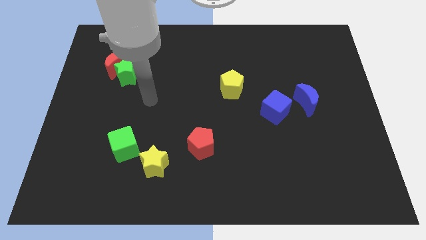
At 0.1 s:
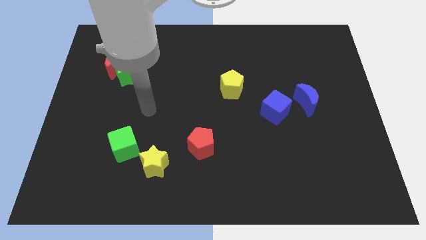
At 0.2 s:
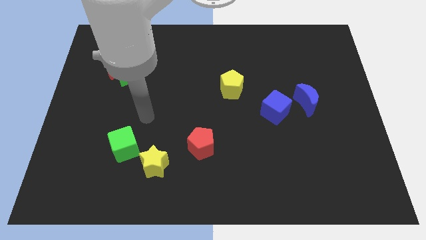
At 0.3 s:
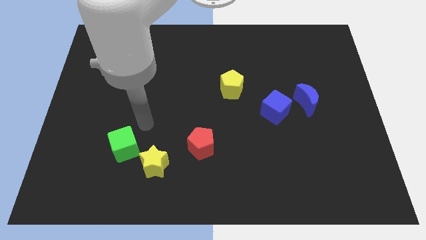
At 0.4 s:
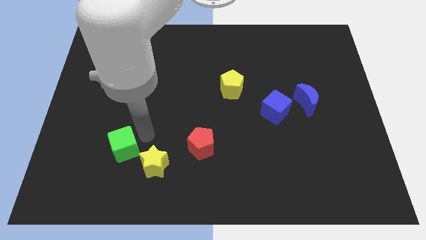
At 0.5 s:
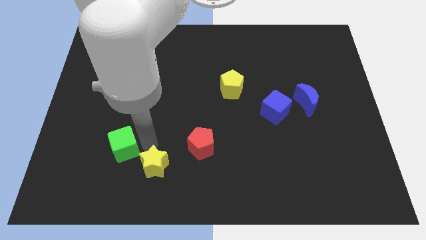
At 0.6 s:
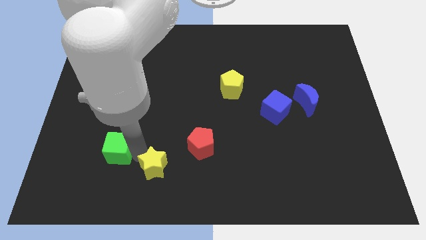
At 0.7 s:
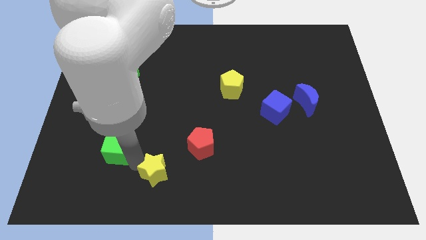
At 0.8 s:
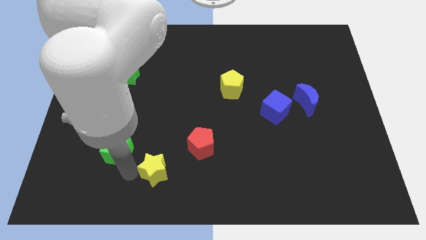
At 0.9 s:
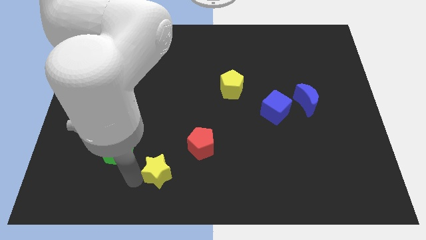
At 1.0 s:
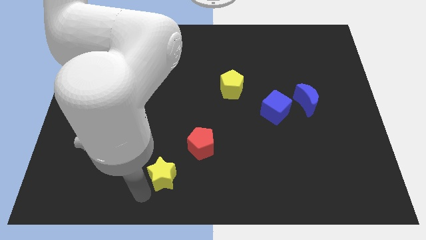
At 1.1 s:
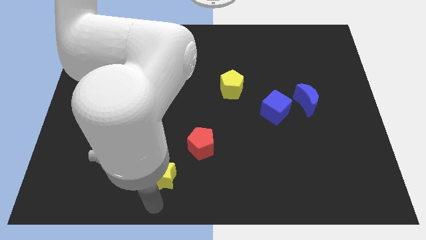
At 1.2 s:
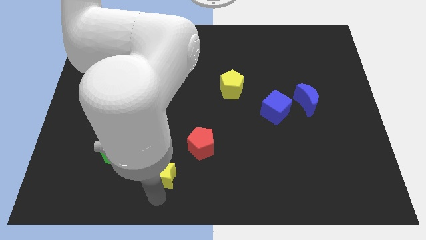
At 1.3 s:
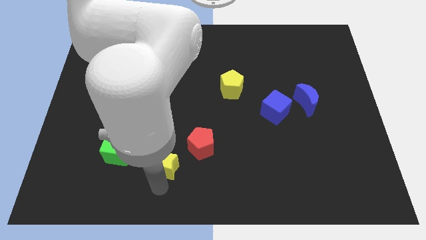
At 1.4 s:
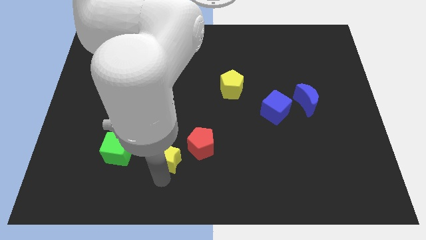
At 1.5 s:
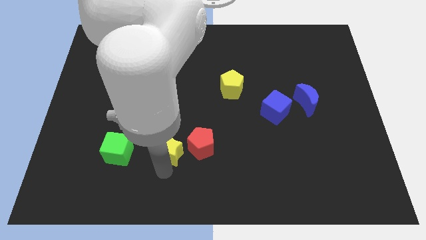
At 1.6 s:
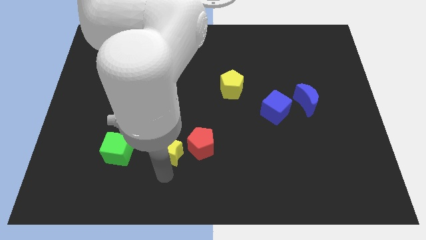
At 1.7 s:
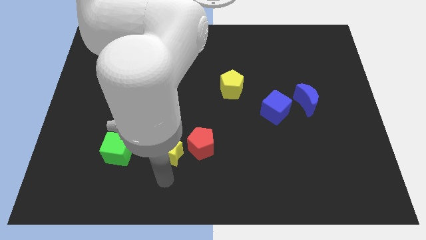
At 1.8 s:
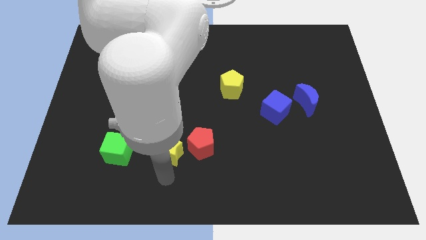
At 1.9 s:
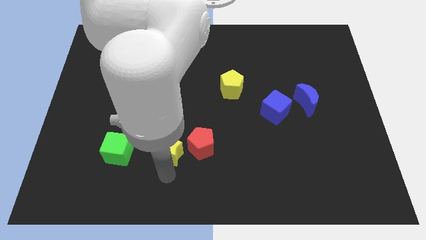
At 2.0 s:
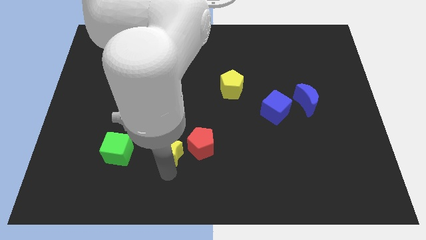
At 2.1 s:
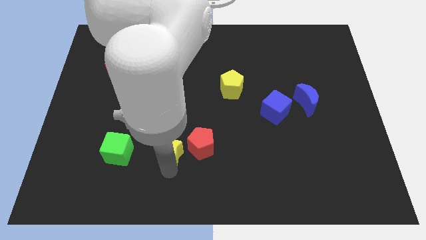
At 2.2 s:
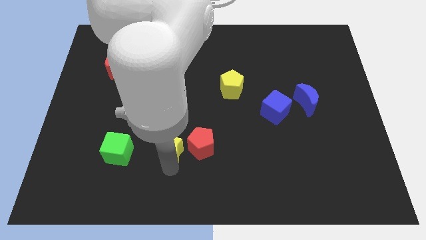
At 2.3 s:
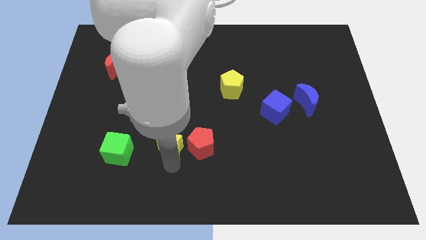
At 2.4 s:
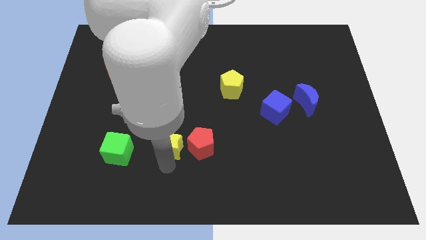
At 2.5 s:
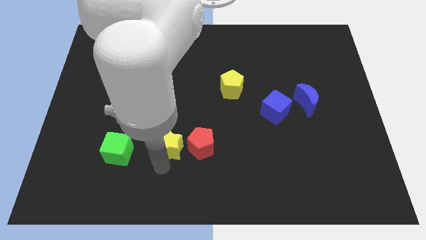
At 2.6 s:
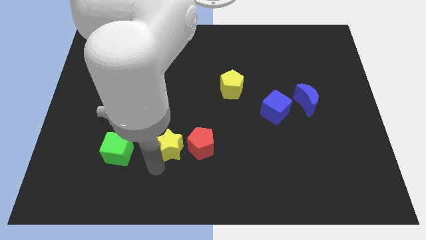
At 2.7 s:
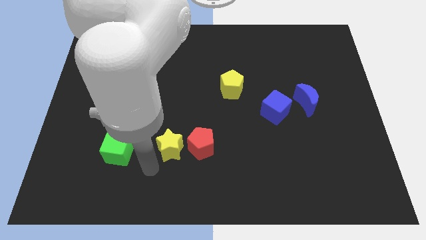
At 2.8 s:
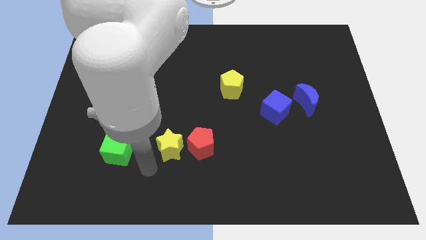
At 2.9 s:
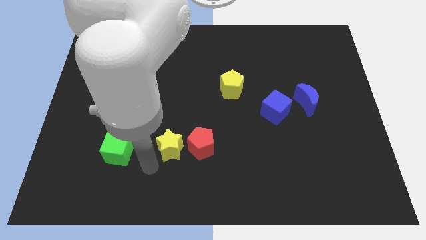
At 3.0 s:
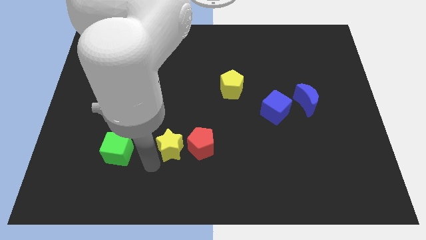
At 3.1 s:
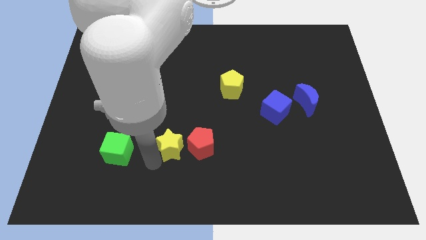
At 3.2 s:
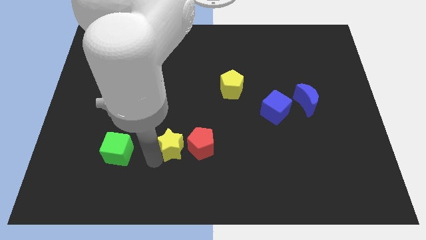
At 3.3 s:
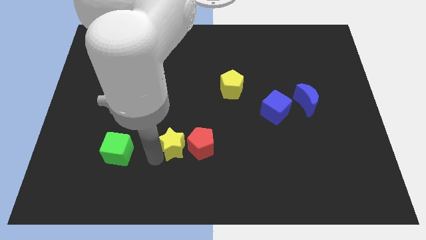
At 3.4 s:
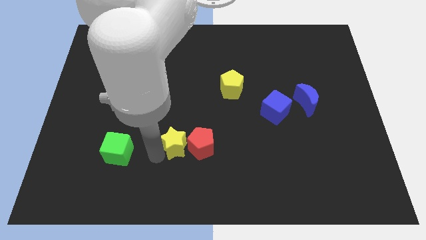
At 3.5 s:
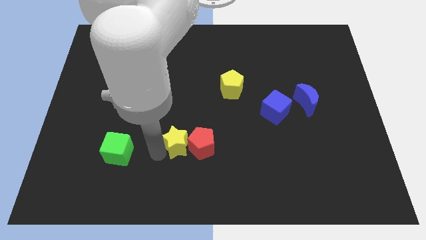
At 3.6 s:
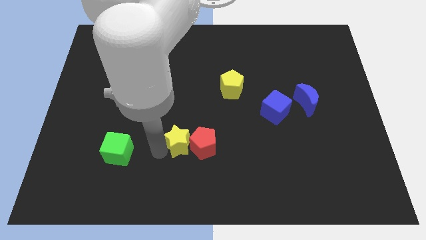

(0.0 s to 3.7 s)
slide the yellow star upwards and to the right diagonally a bit

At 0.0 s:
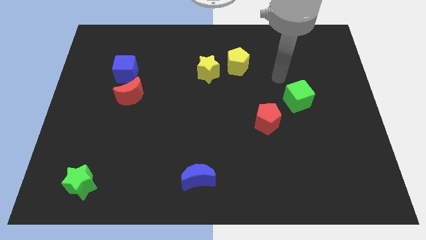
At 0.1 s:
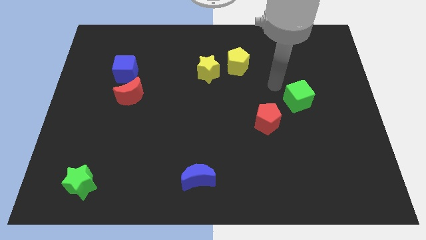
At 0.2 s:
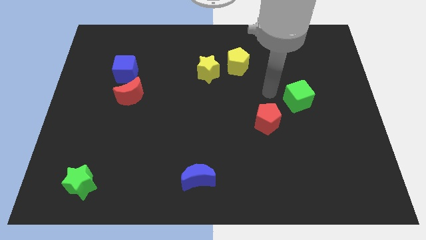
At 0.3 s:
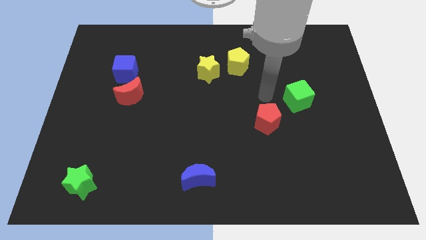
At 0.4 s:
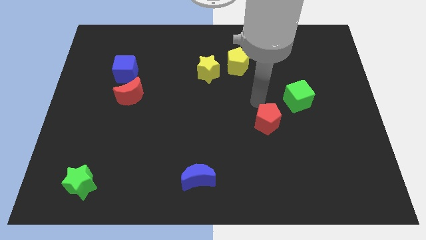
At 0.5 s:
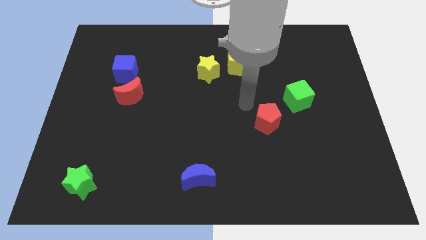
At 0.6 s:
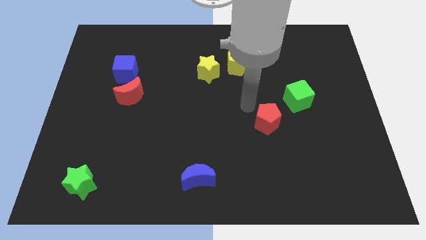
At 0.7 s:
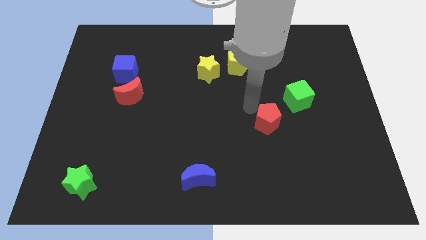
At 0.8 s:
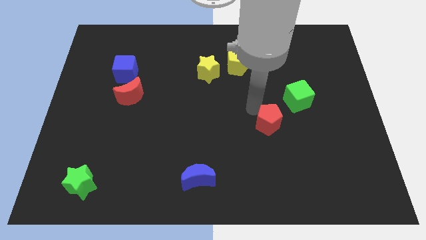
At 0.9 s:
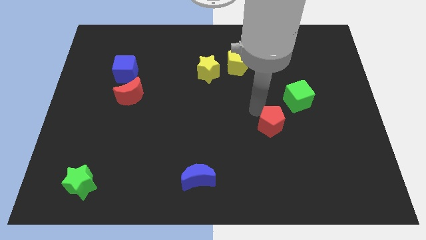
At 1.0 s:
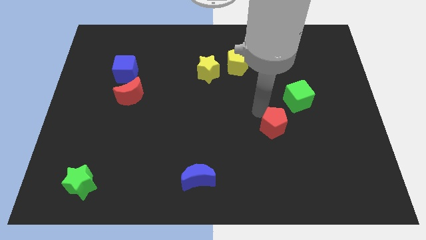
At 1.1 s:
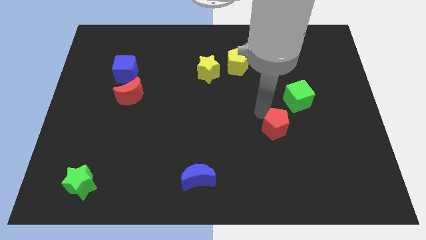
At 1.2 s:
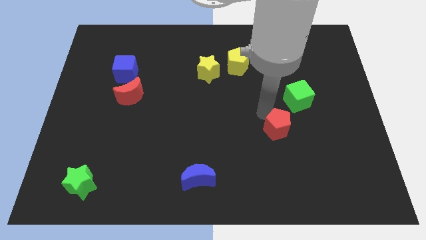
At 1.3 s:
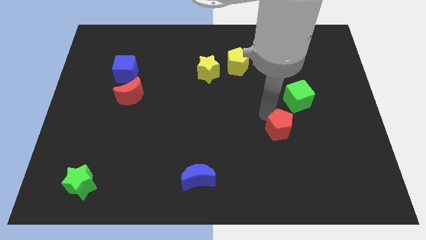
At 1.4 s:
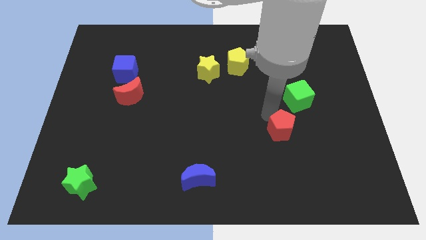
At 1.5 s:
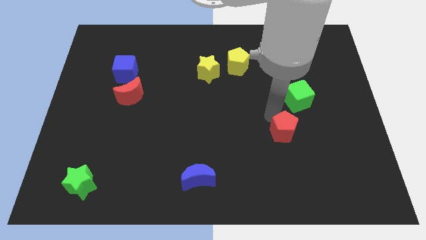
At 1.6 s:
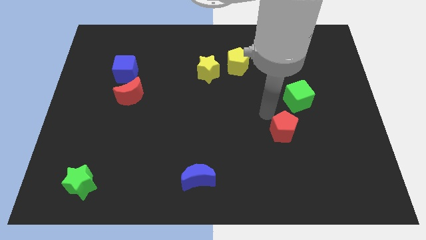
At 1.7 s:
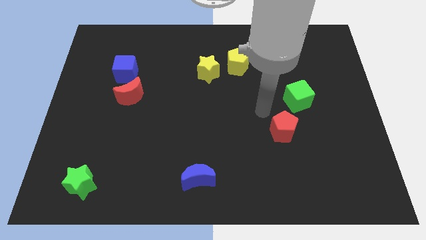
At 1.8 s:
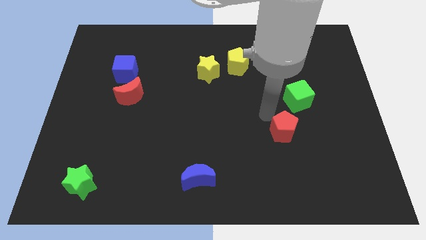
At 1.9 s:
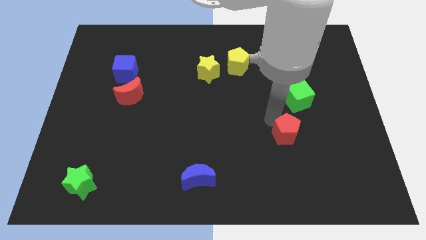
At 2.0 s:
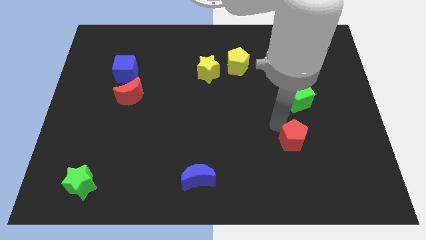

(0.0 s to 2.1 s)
push the red pentagon diagonally down and to the right a little bit

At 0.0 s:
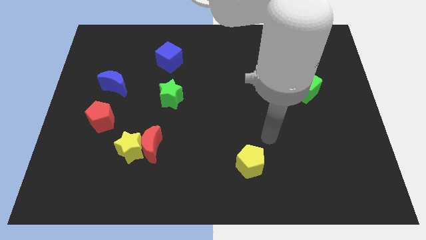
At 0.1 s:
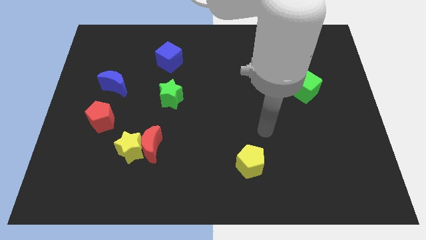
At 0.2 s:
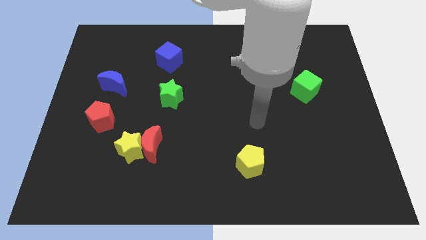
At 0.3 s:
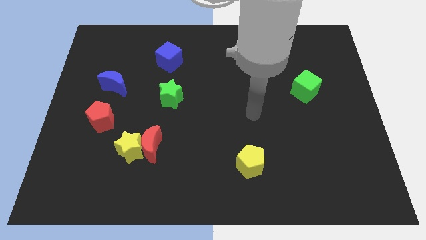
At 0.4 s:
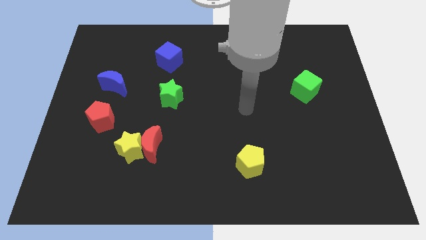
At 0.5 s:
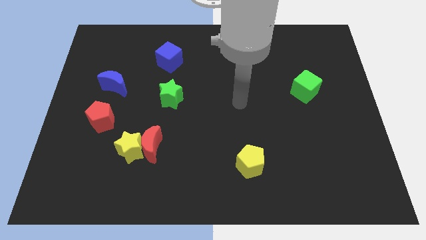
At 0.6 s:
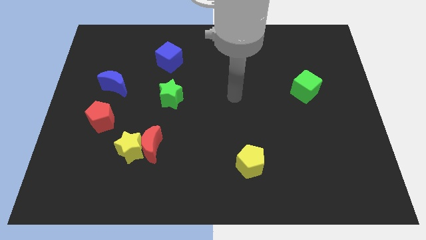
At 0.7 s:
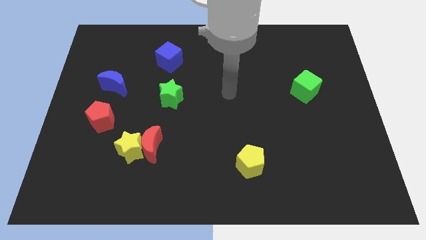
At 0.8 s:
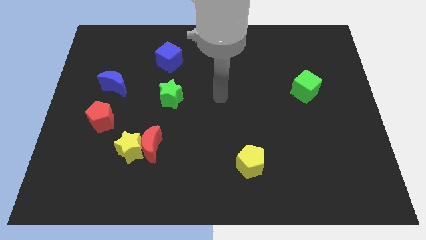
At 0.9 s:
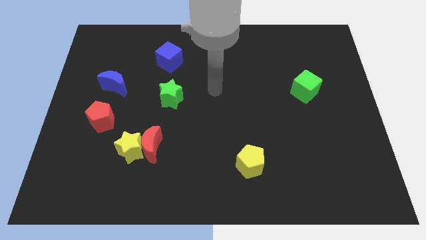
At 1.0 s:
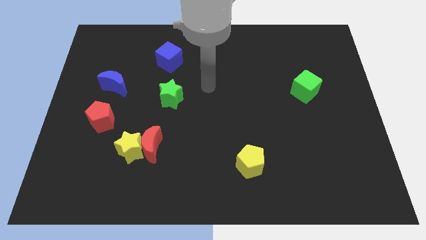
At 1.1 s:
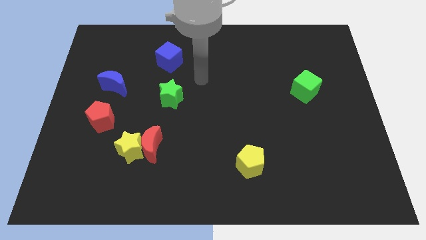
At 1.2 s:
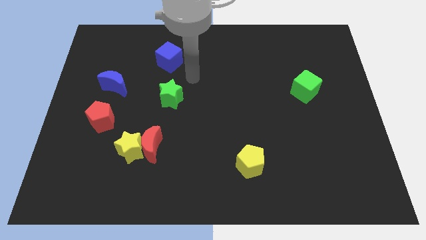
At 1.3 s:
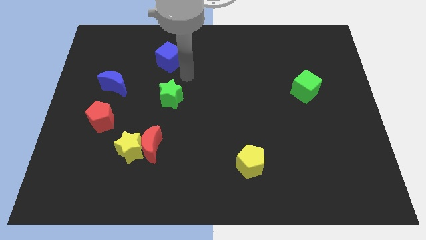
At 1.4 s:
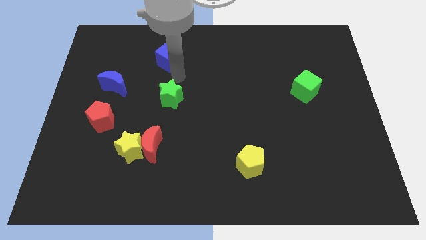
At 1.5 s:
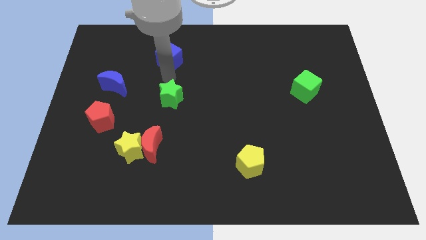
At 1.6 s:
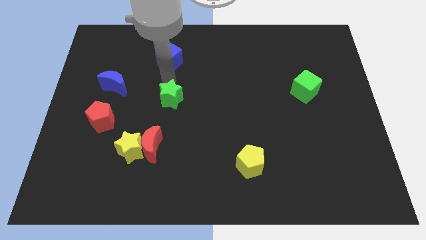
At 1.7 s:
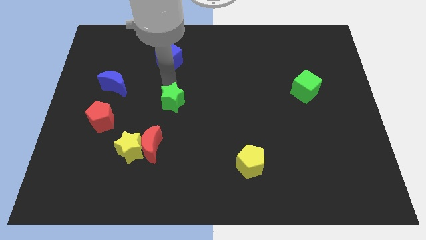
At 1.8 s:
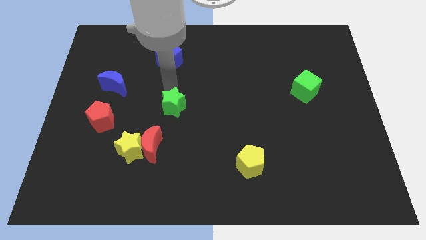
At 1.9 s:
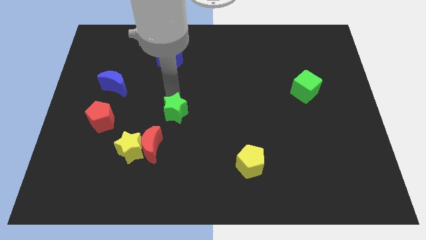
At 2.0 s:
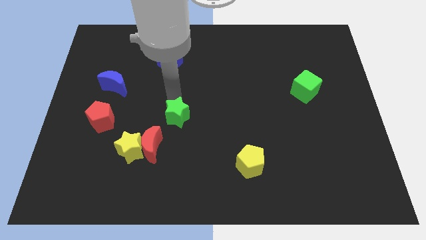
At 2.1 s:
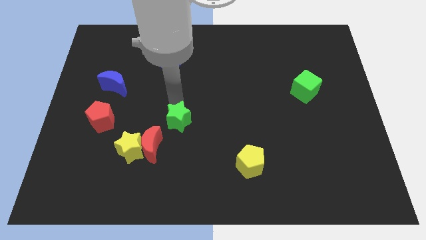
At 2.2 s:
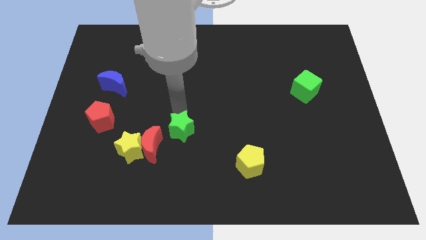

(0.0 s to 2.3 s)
slightly push the green star down
